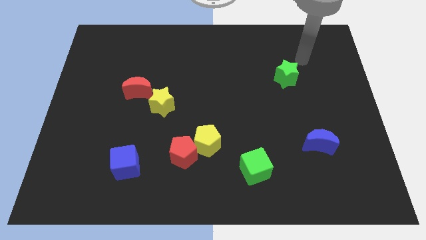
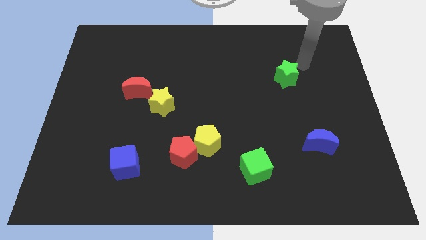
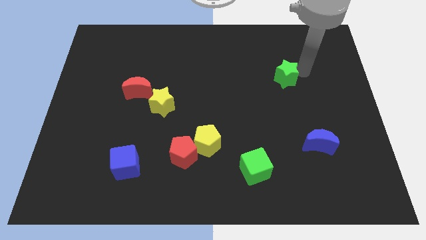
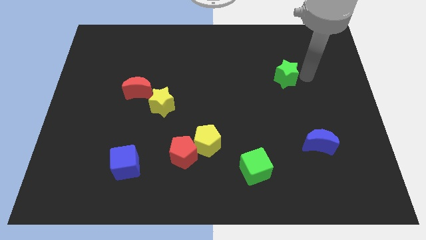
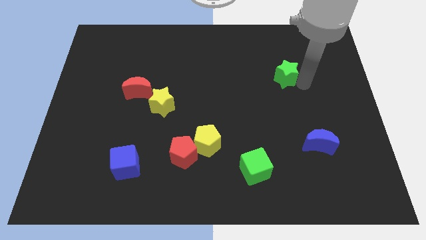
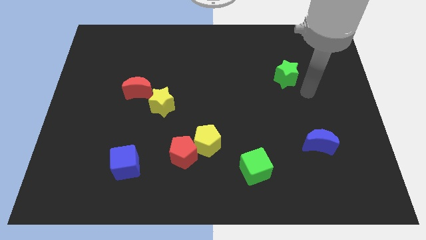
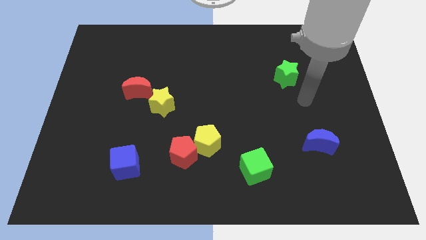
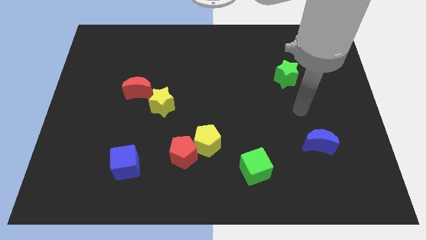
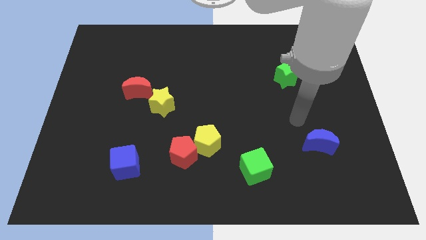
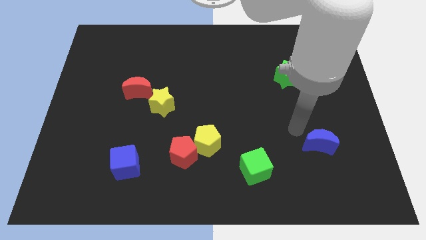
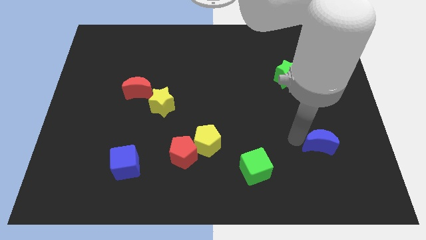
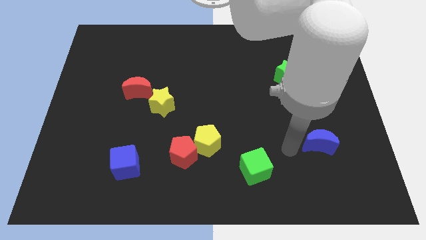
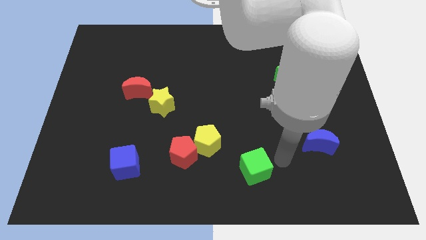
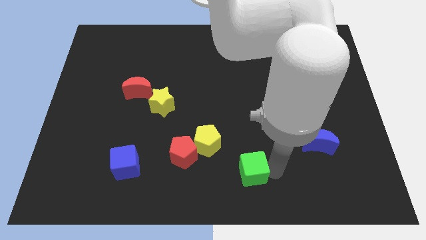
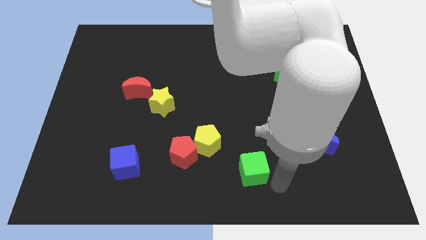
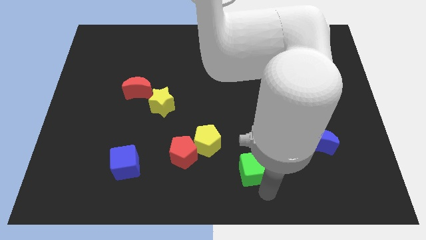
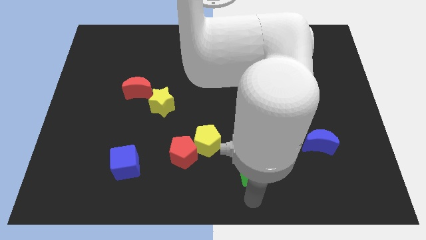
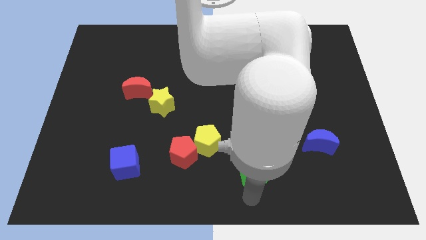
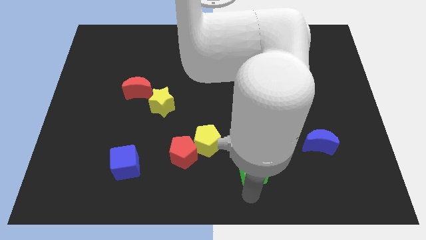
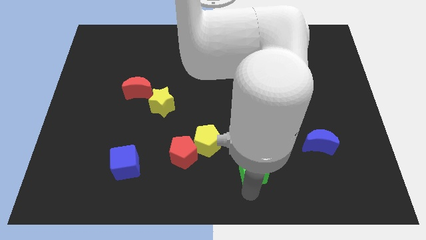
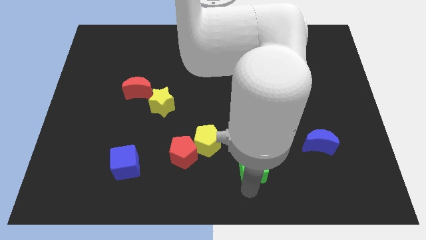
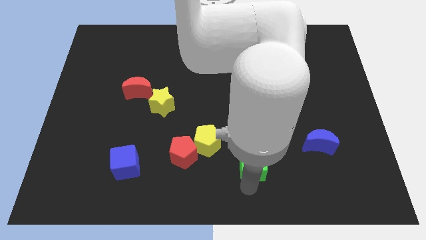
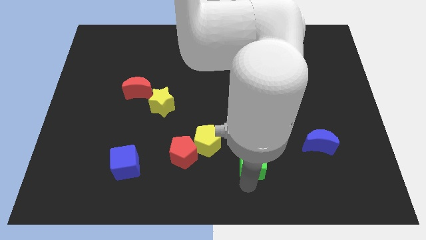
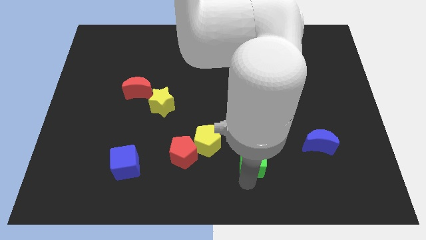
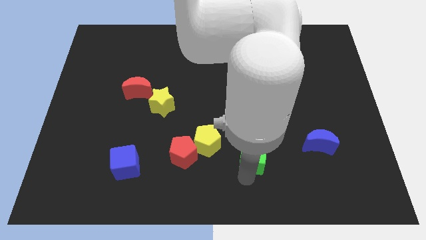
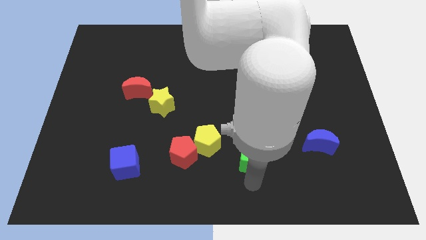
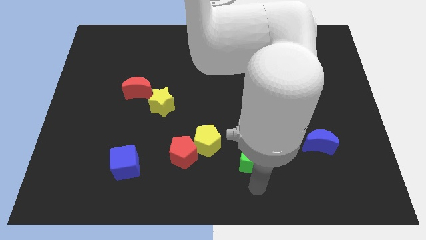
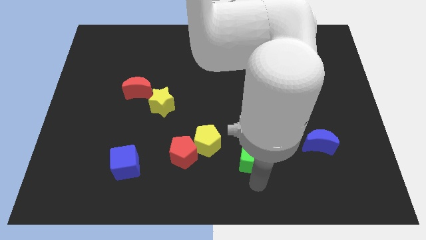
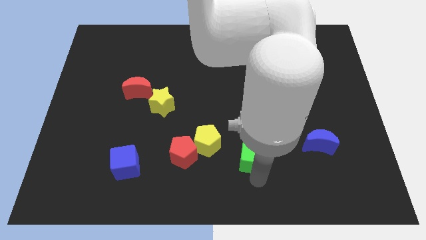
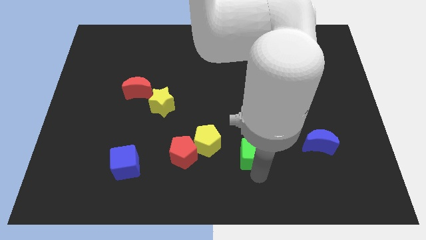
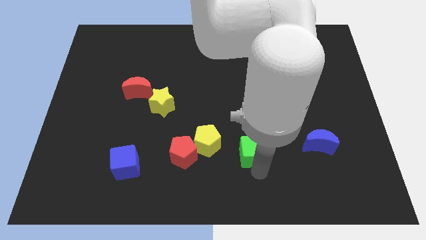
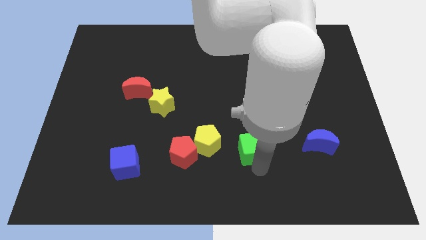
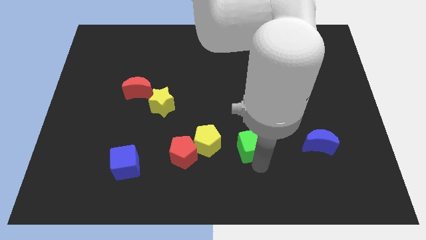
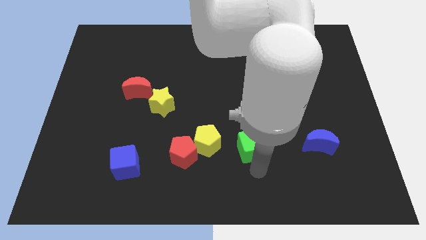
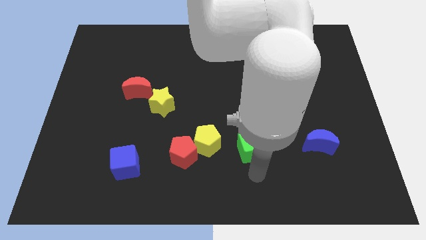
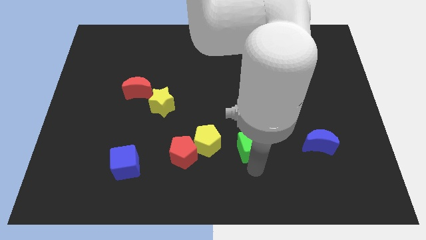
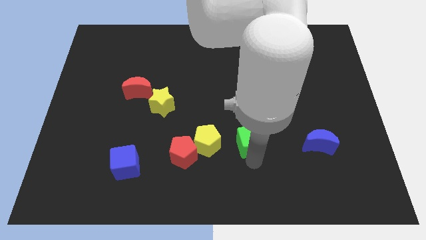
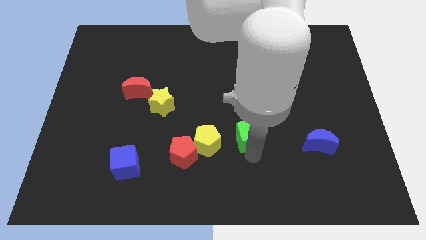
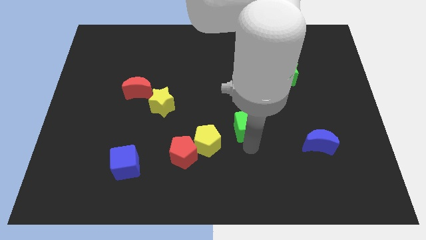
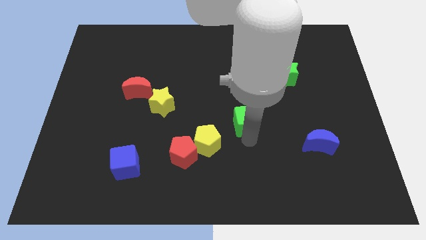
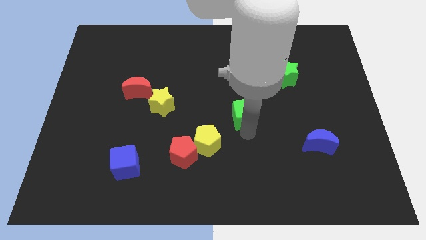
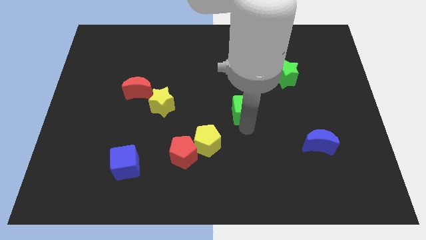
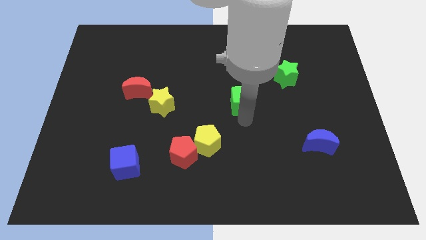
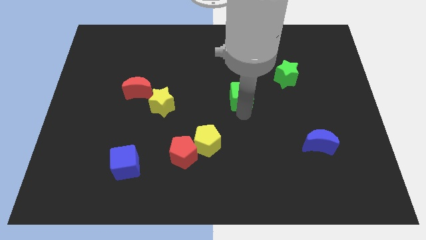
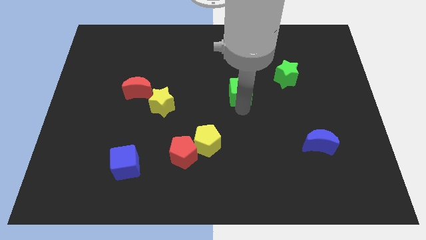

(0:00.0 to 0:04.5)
push the green cube up

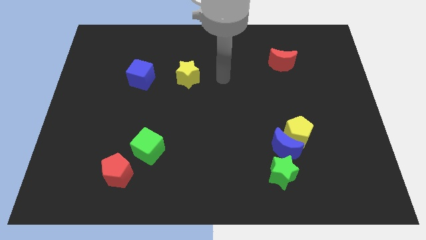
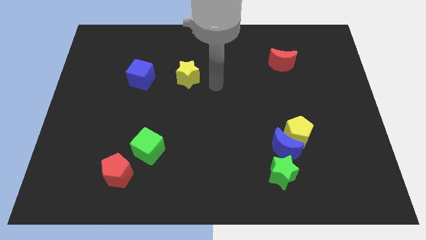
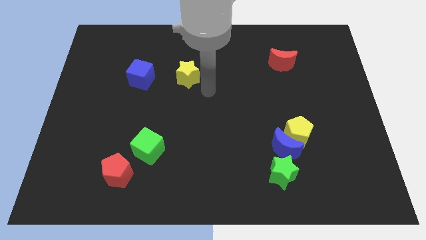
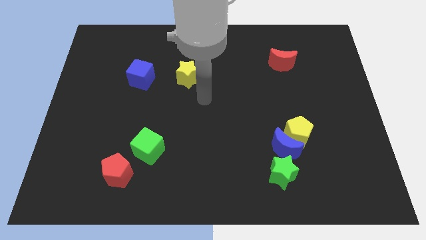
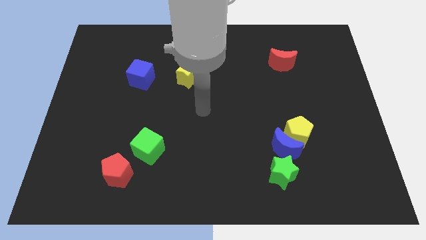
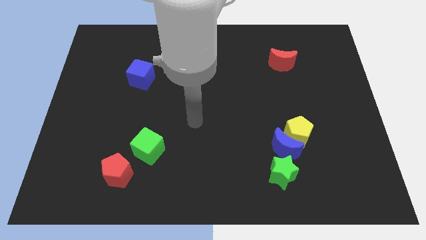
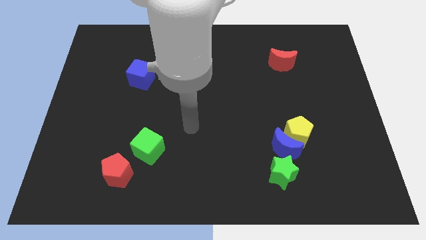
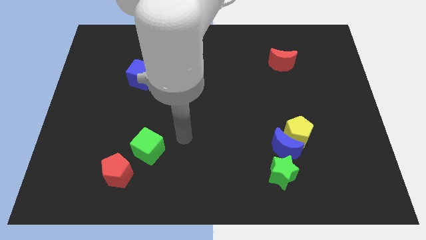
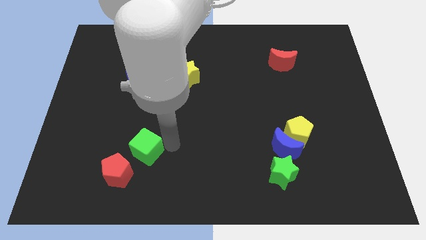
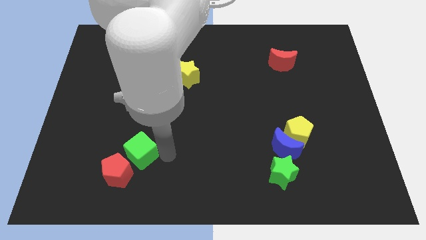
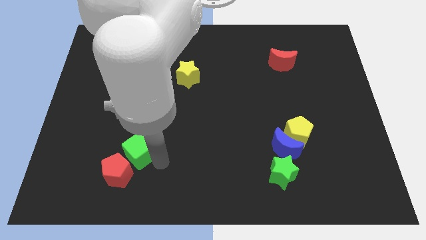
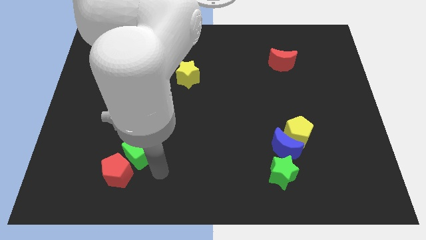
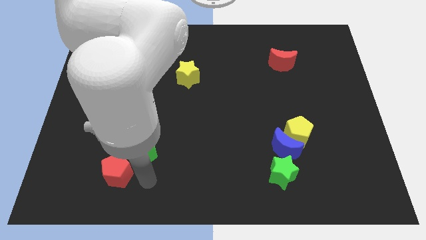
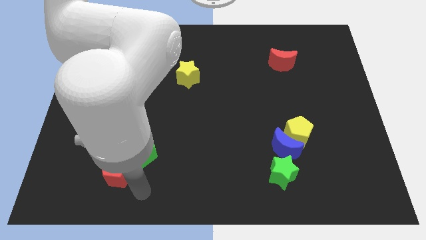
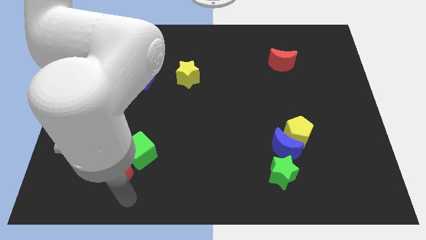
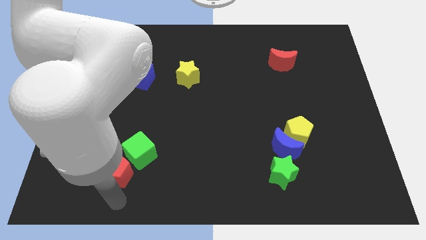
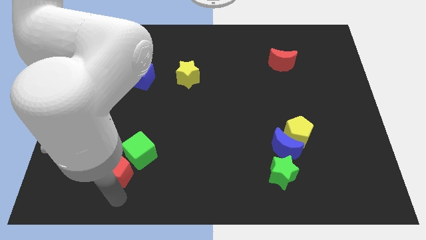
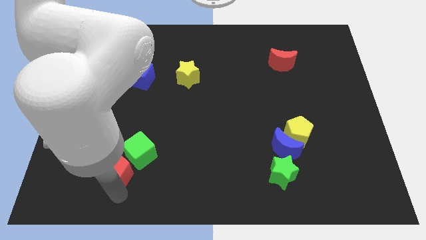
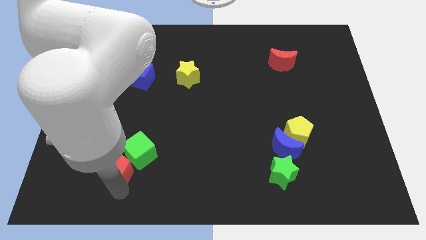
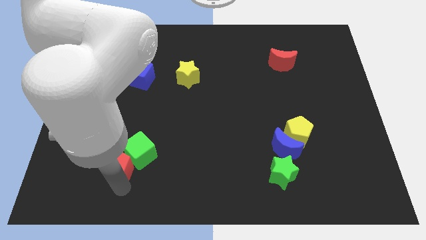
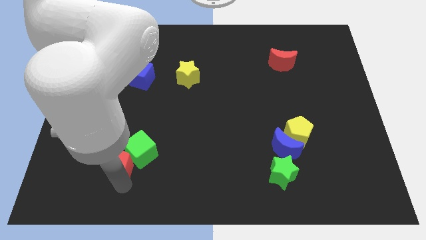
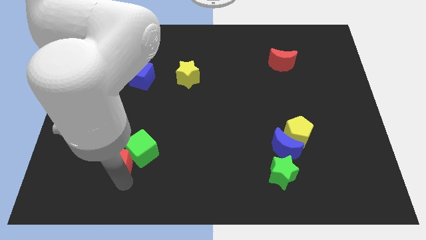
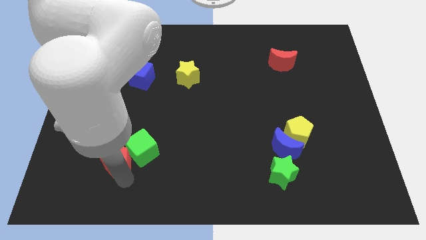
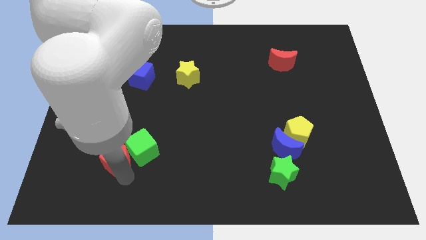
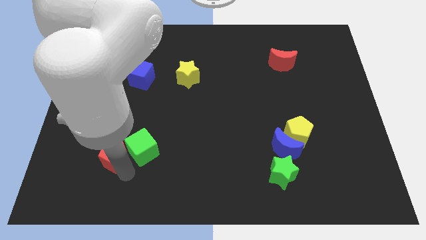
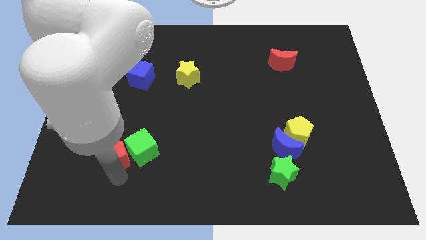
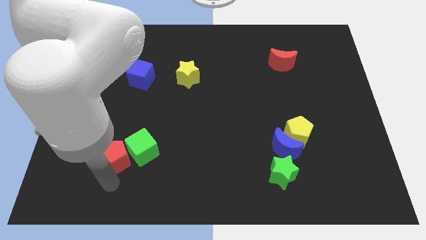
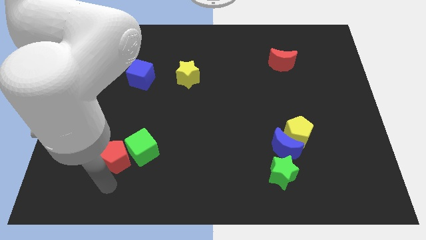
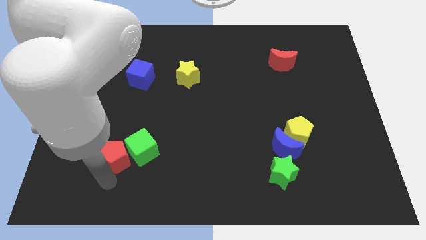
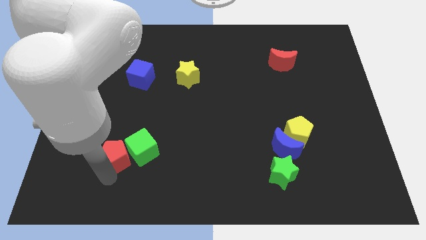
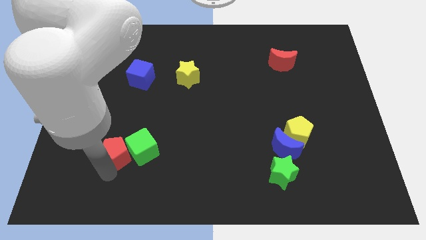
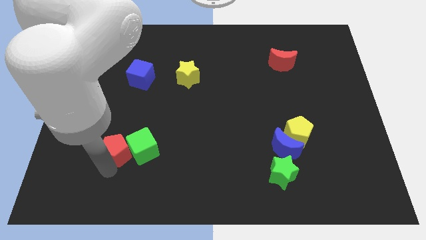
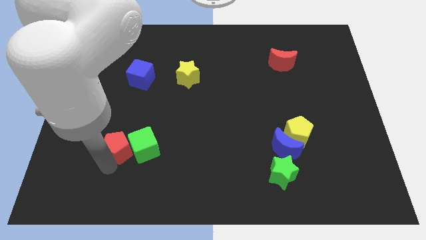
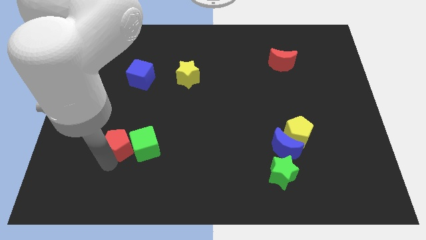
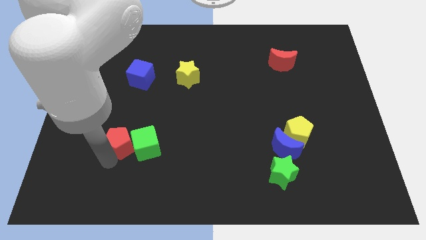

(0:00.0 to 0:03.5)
slide the red pentagon somewhat up
